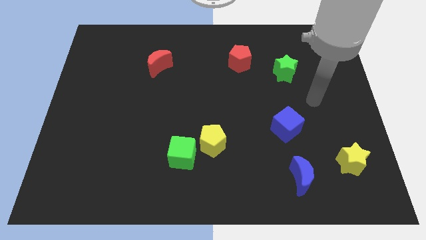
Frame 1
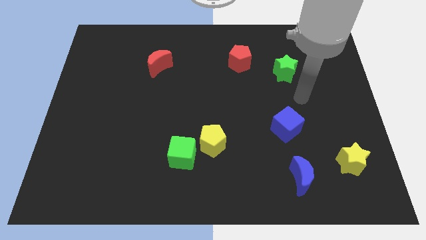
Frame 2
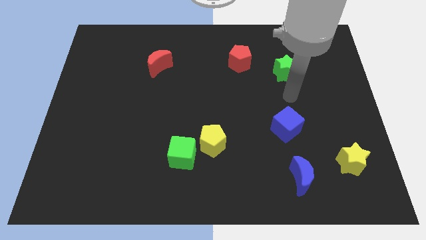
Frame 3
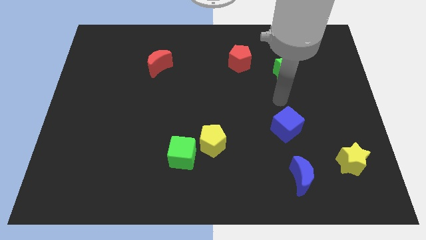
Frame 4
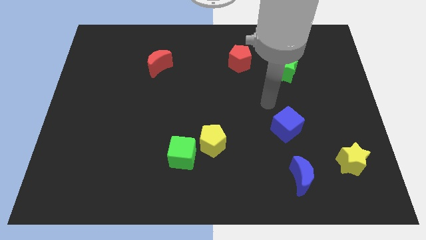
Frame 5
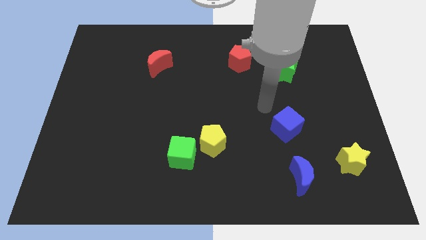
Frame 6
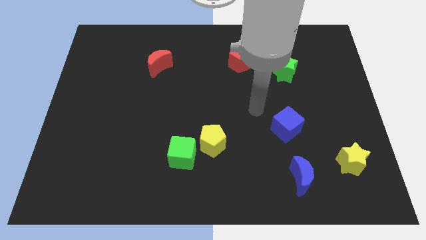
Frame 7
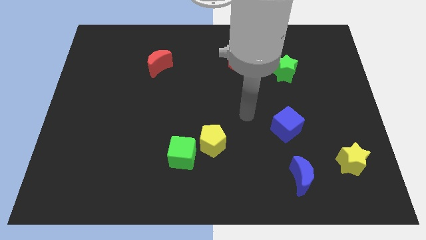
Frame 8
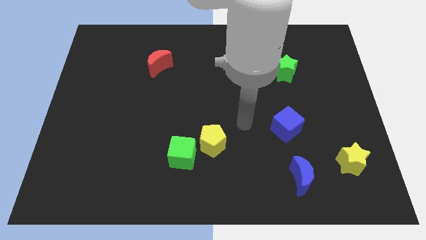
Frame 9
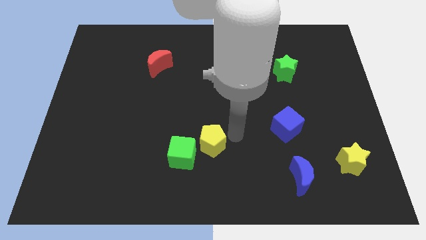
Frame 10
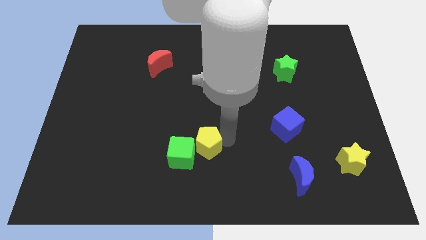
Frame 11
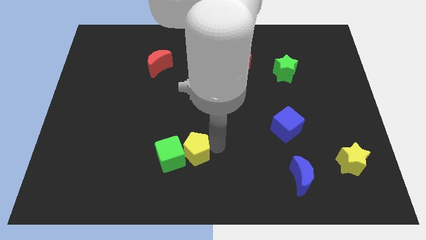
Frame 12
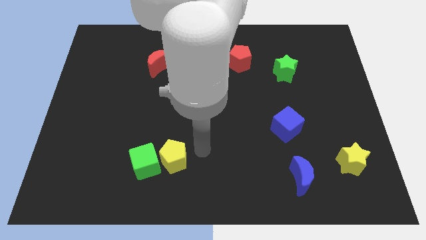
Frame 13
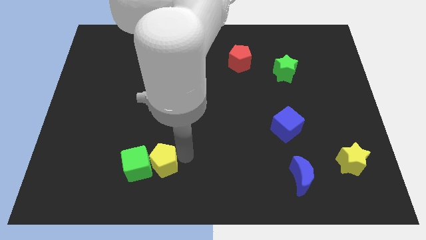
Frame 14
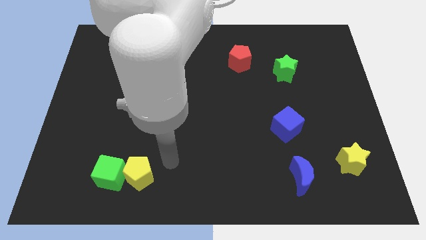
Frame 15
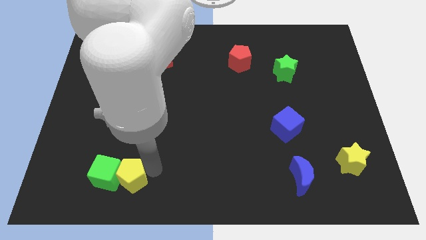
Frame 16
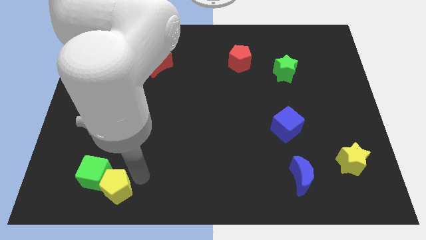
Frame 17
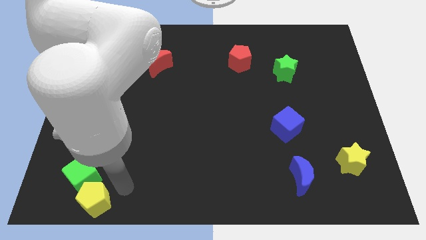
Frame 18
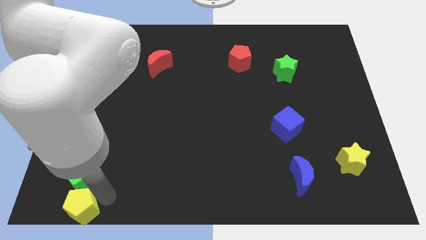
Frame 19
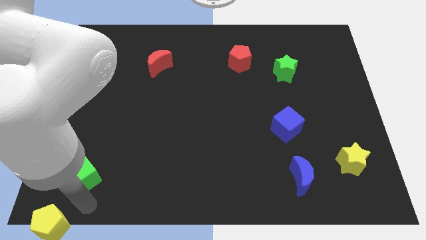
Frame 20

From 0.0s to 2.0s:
move the green cube away from the yellow pentagon

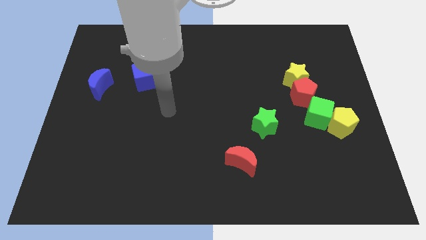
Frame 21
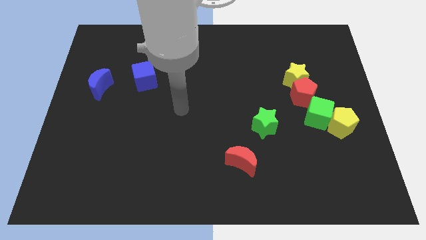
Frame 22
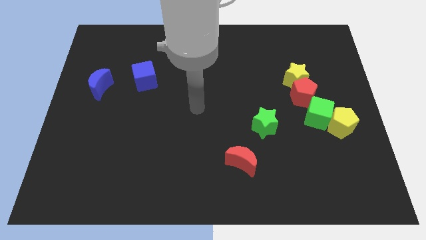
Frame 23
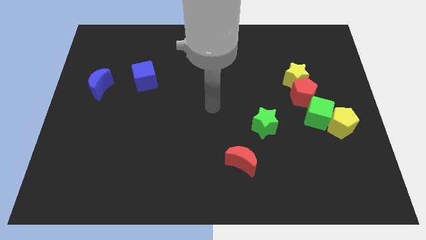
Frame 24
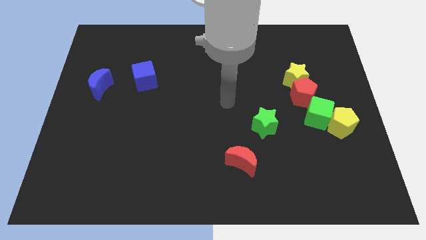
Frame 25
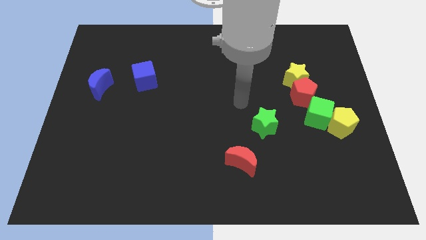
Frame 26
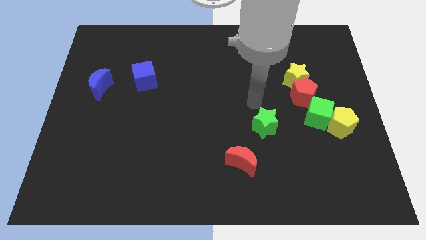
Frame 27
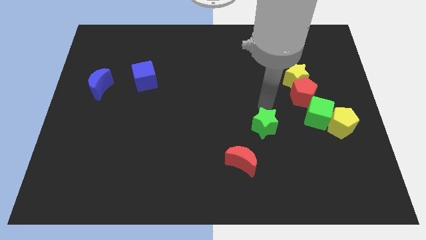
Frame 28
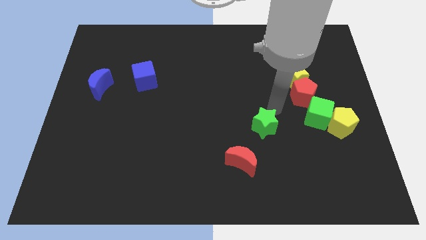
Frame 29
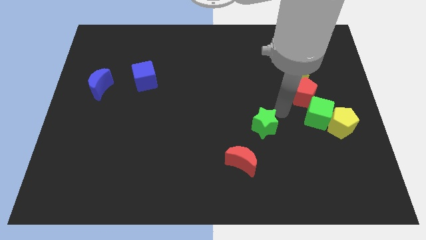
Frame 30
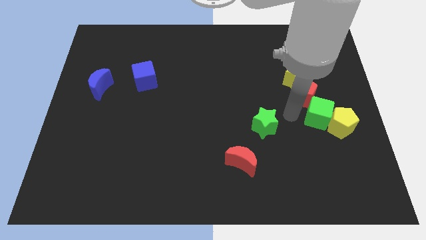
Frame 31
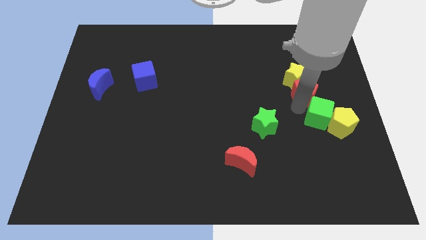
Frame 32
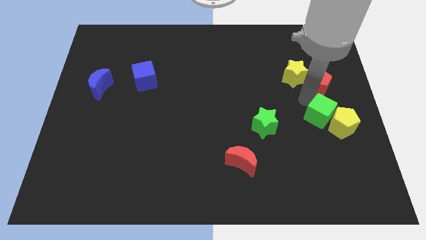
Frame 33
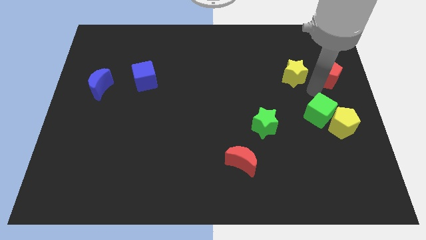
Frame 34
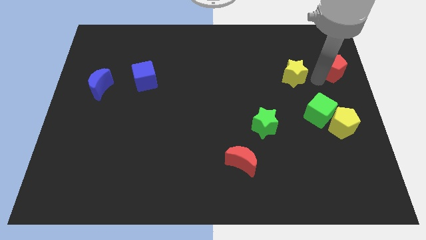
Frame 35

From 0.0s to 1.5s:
pull the yellow star apart from the red pentagon

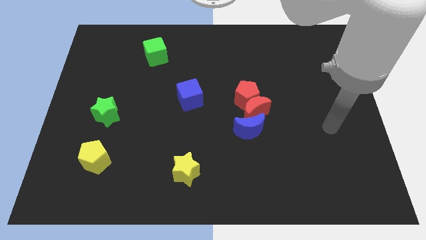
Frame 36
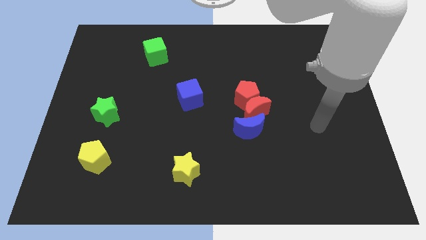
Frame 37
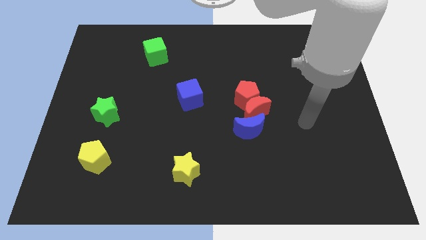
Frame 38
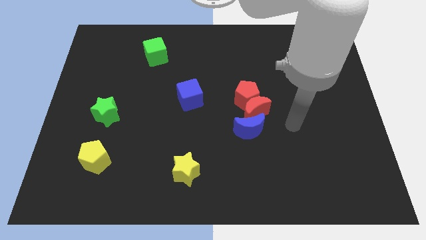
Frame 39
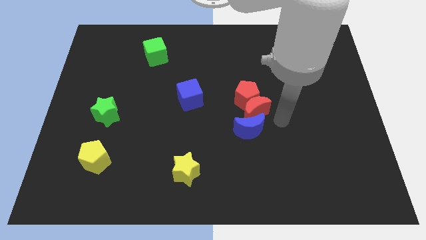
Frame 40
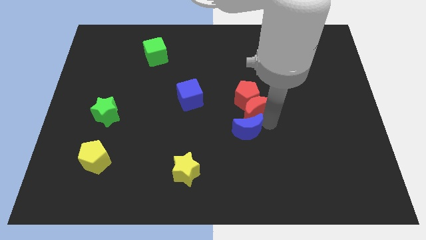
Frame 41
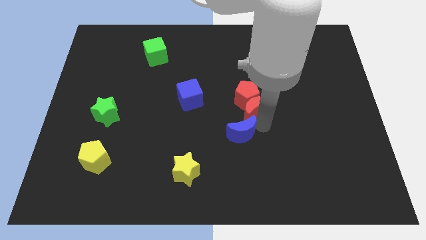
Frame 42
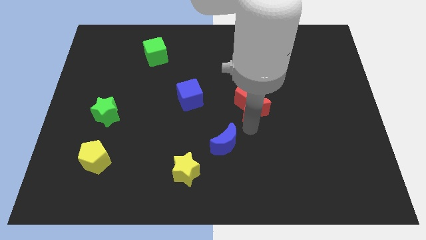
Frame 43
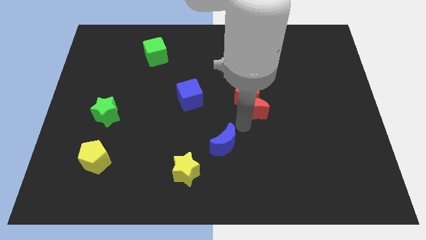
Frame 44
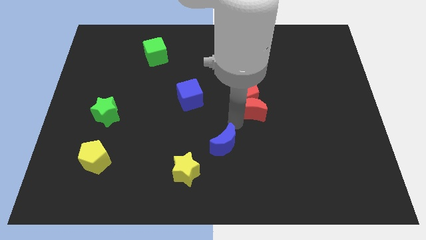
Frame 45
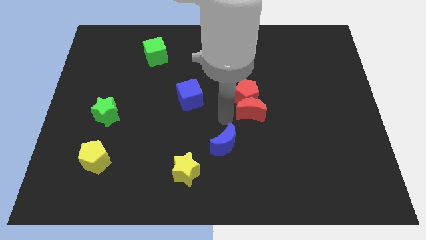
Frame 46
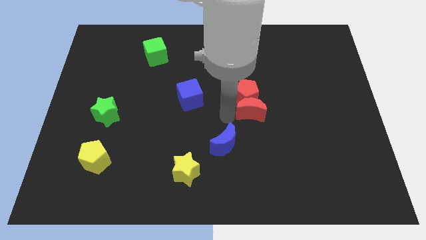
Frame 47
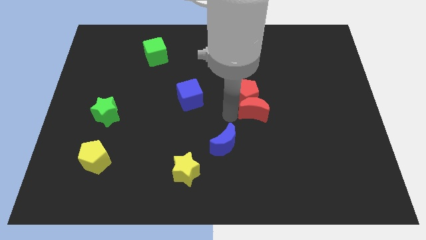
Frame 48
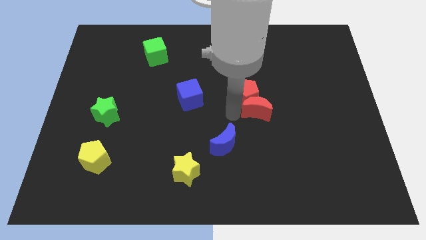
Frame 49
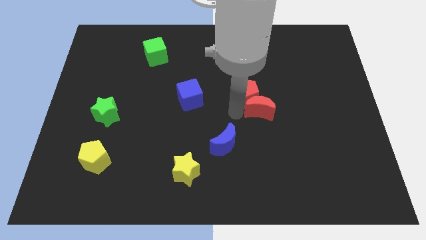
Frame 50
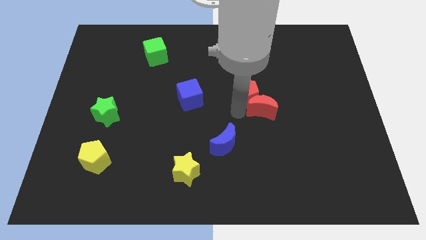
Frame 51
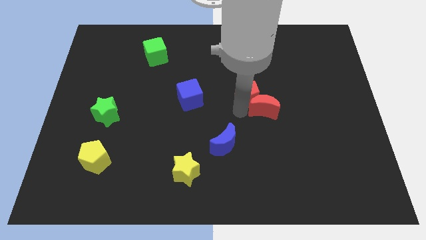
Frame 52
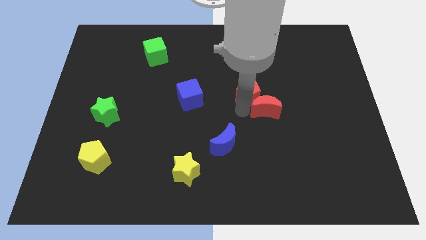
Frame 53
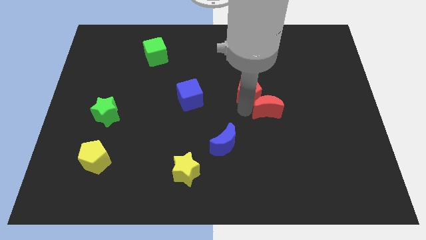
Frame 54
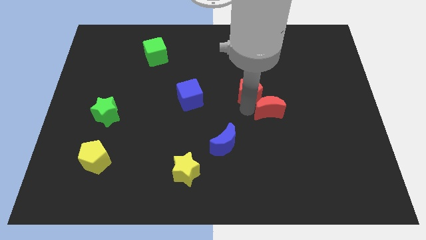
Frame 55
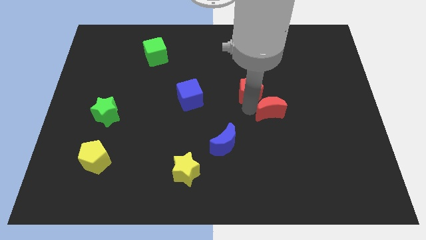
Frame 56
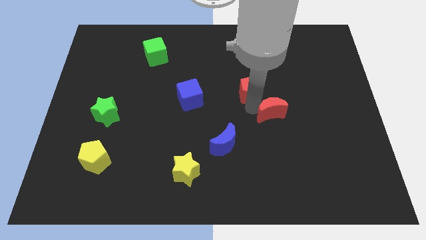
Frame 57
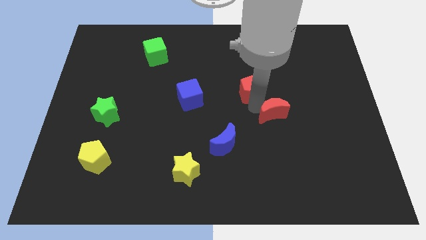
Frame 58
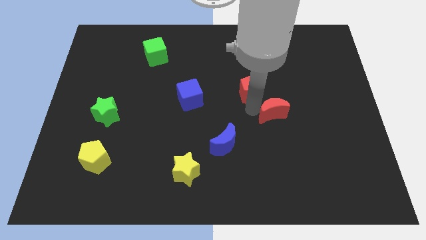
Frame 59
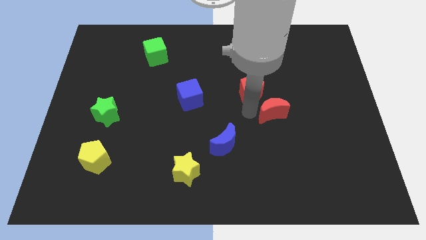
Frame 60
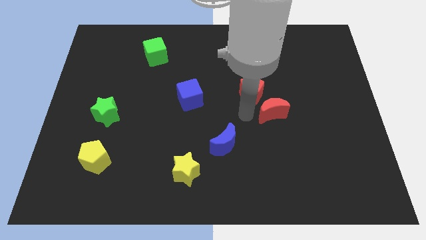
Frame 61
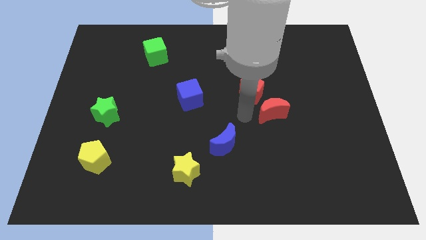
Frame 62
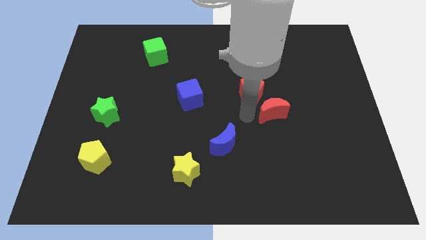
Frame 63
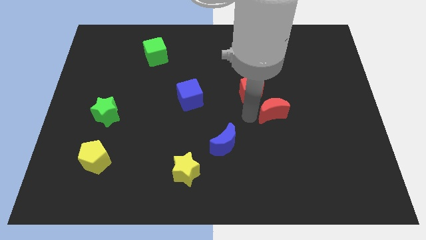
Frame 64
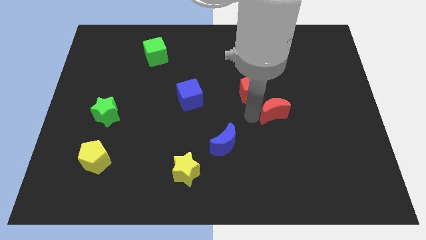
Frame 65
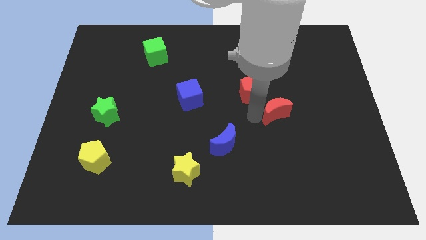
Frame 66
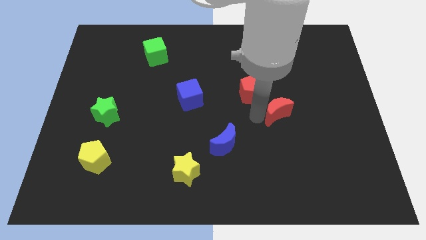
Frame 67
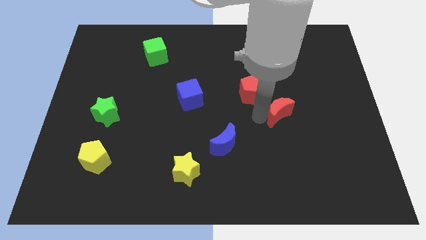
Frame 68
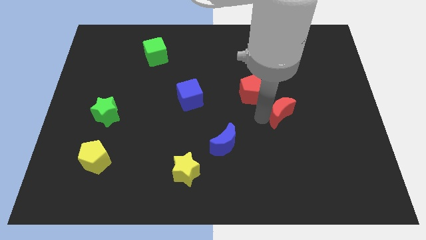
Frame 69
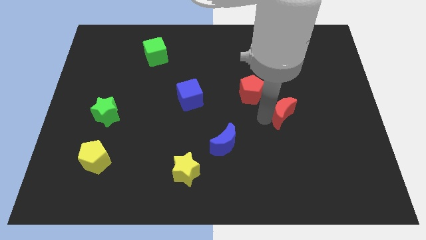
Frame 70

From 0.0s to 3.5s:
move the red moon away from the red pentagon and blue moon

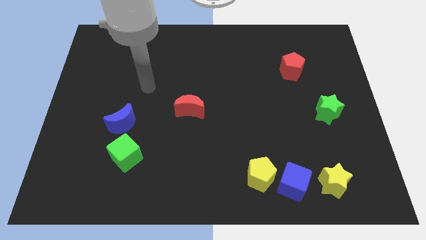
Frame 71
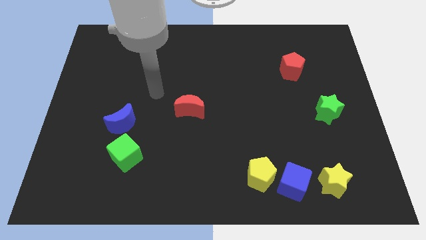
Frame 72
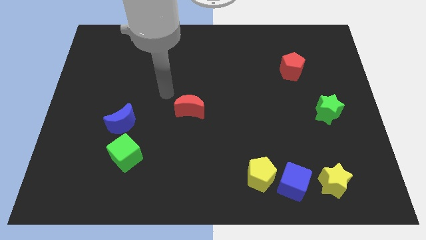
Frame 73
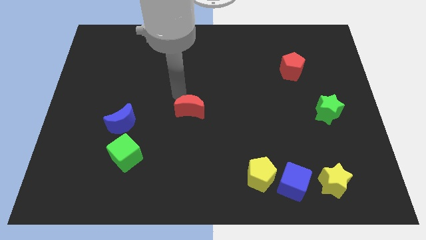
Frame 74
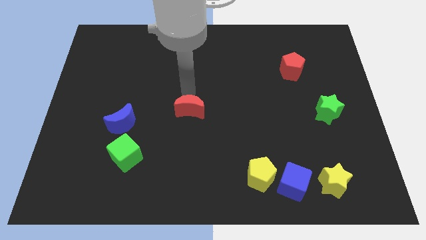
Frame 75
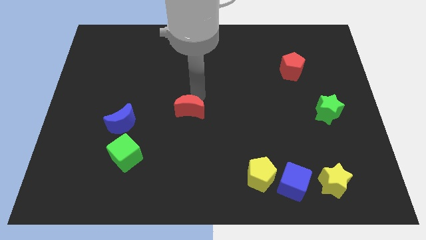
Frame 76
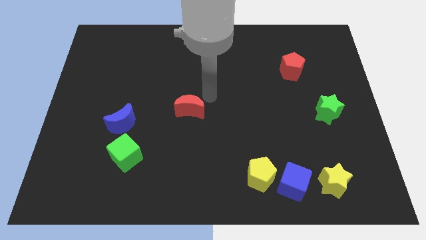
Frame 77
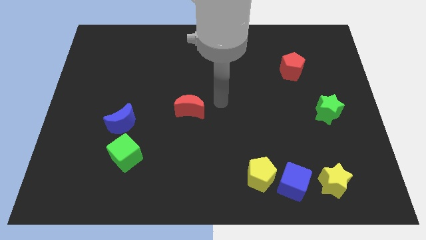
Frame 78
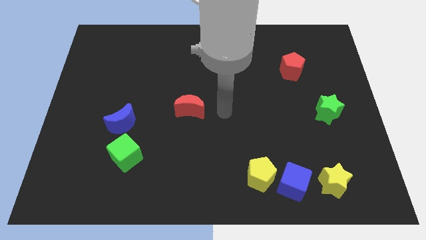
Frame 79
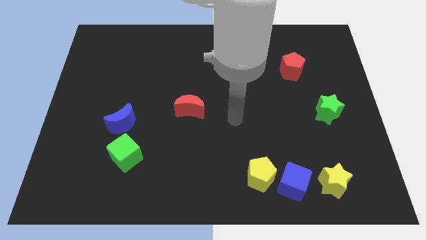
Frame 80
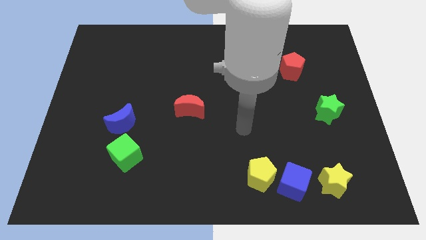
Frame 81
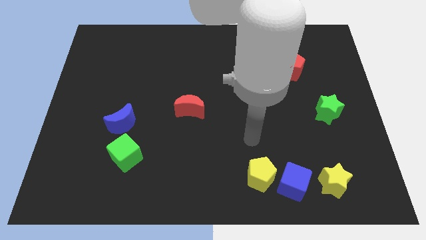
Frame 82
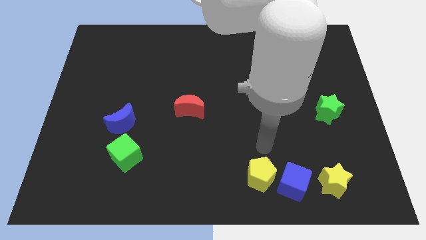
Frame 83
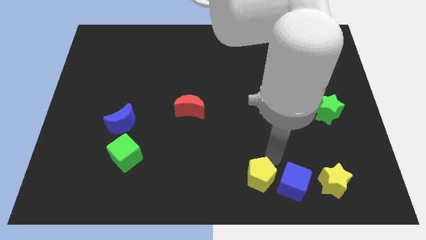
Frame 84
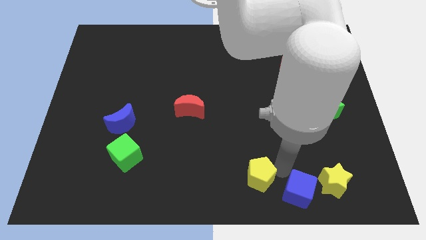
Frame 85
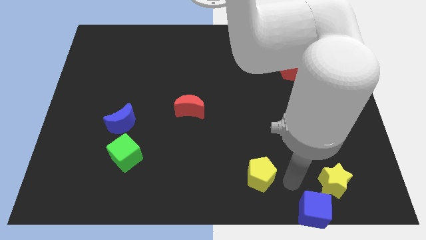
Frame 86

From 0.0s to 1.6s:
pull the yellow pentagon apart from the blue cube

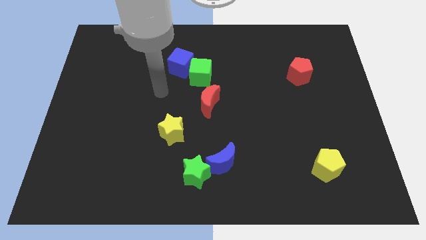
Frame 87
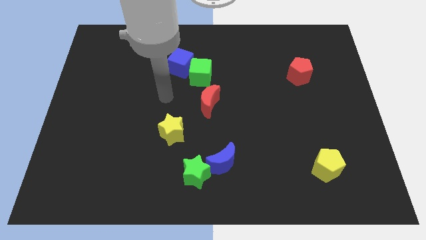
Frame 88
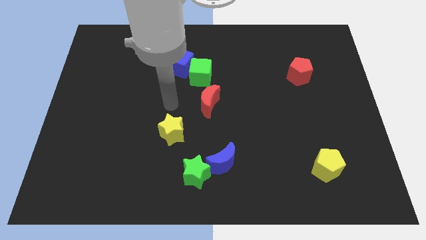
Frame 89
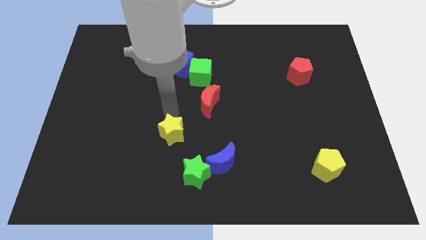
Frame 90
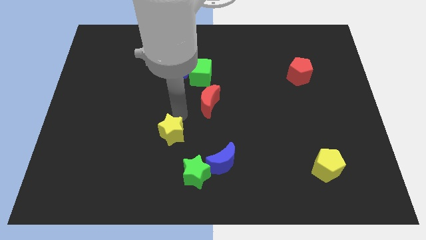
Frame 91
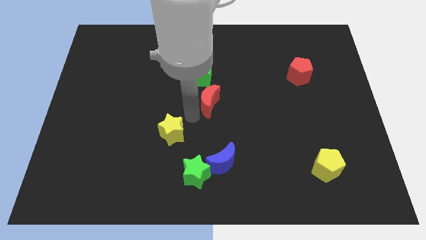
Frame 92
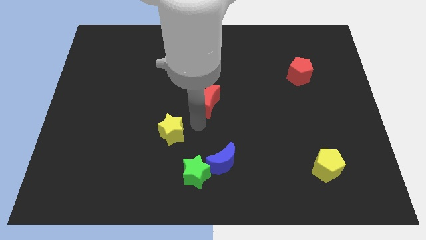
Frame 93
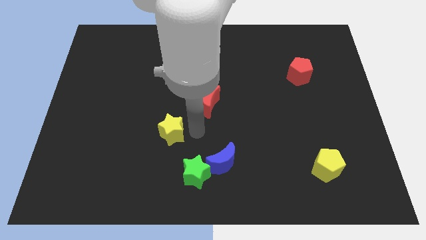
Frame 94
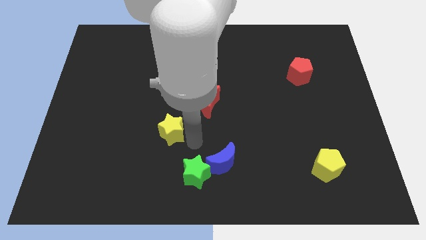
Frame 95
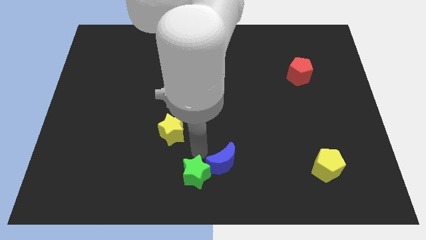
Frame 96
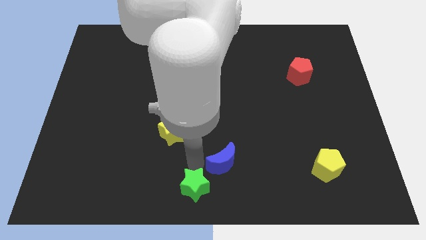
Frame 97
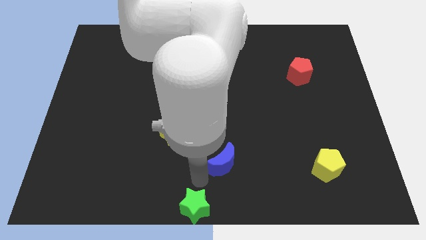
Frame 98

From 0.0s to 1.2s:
separate the blue moon from the green star
